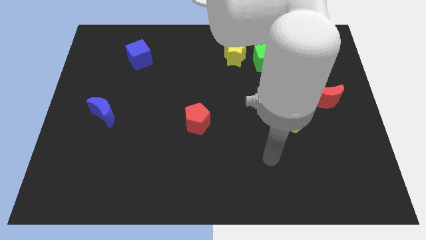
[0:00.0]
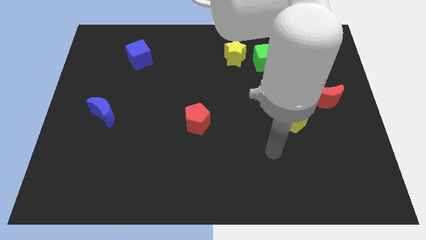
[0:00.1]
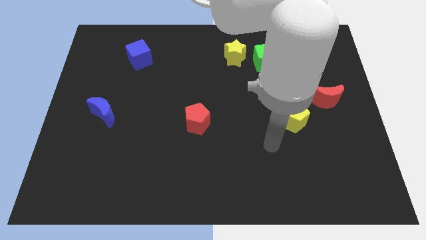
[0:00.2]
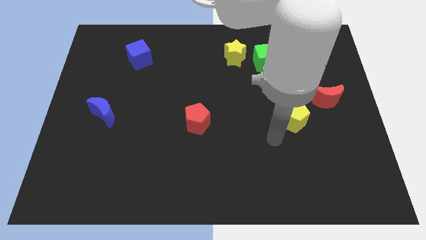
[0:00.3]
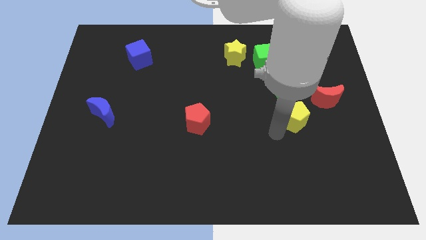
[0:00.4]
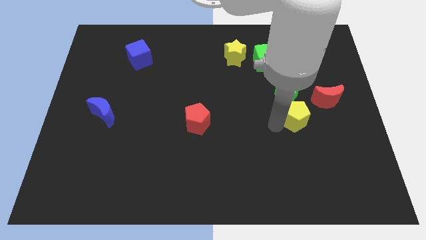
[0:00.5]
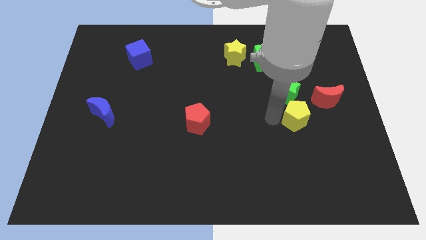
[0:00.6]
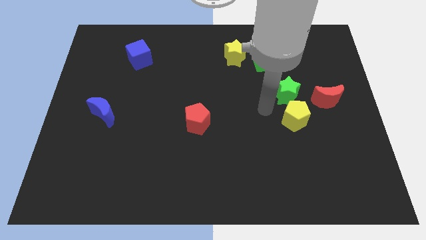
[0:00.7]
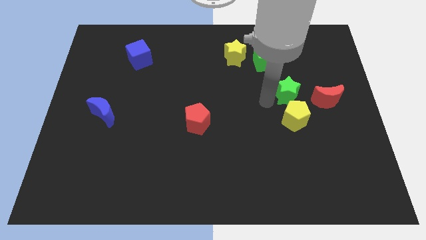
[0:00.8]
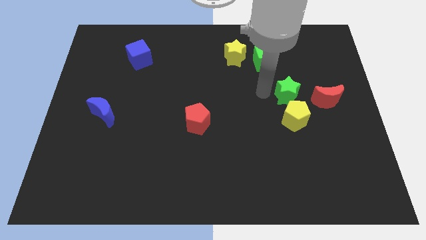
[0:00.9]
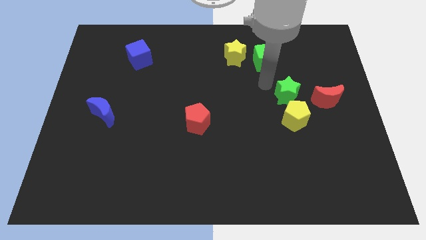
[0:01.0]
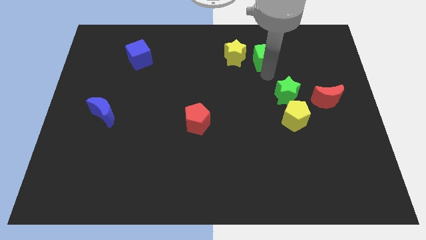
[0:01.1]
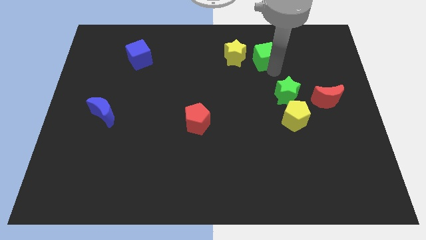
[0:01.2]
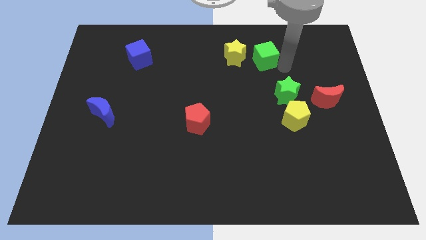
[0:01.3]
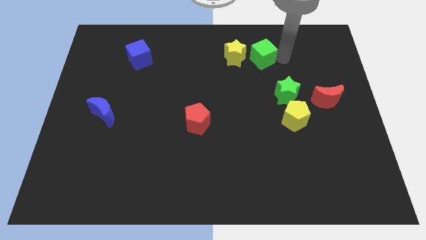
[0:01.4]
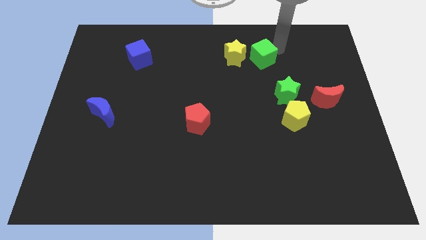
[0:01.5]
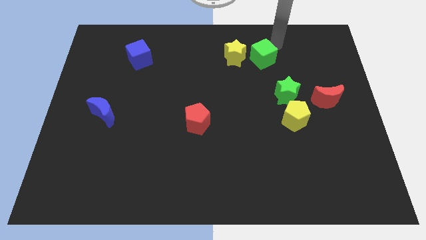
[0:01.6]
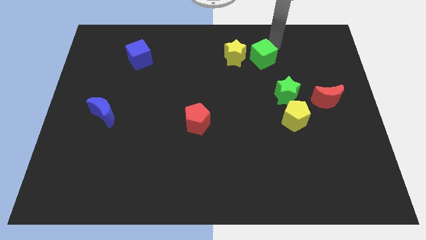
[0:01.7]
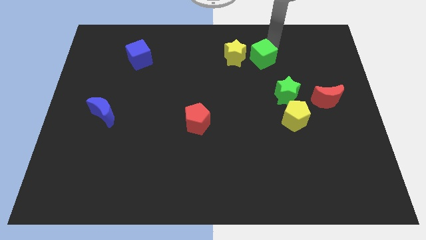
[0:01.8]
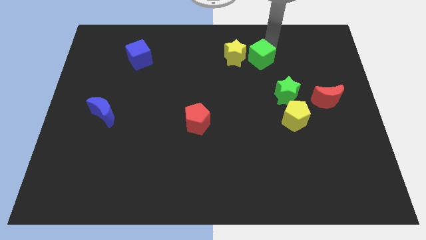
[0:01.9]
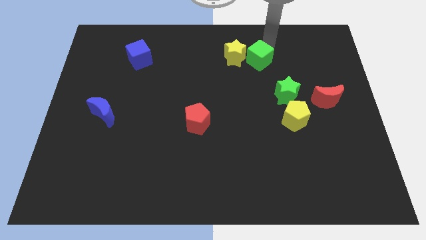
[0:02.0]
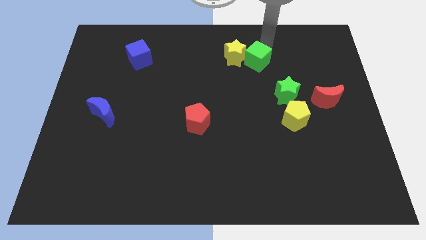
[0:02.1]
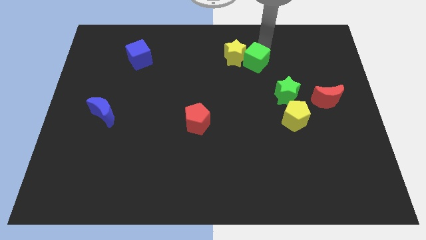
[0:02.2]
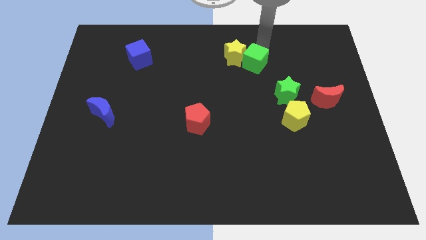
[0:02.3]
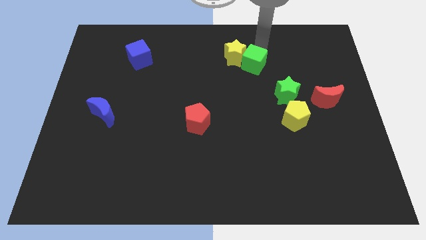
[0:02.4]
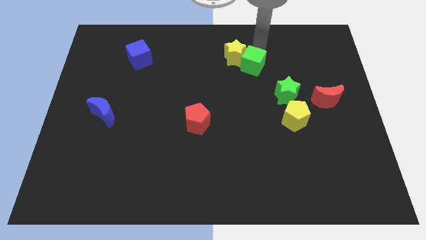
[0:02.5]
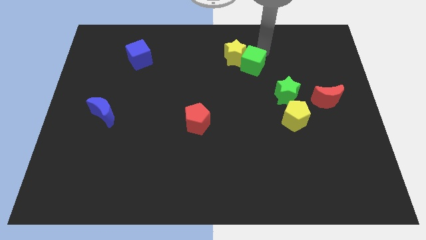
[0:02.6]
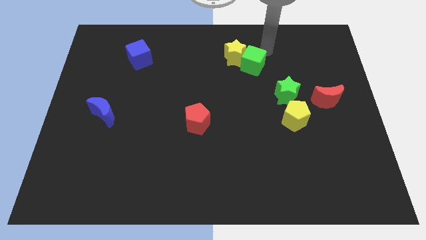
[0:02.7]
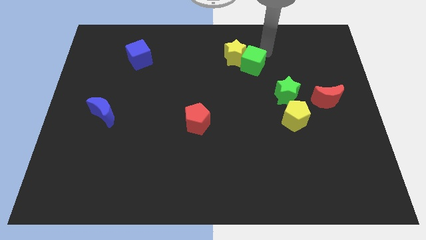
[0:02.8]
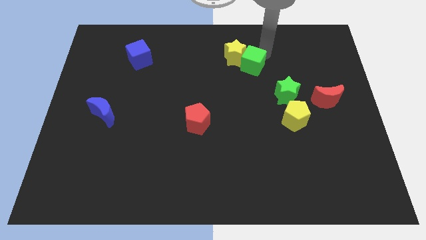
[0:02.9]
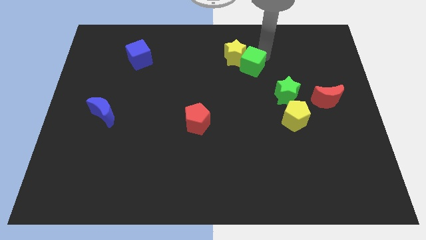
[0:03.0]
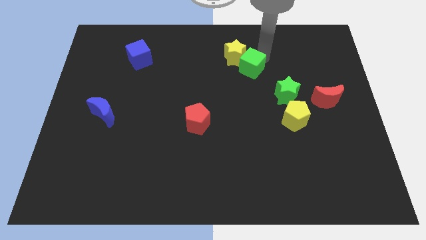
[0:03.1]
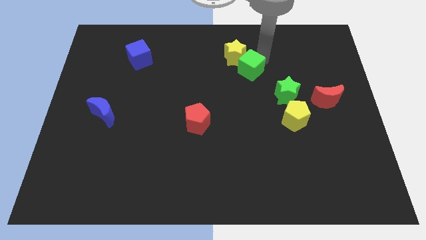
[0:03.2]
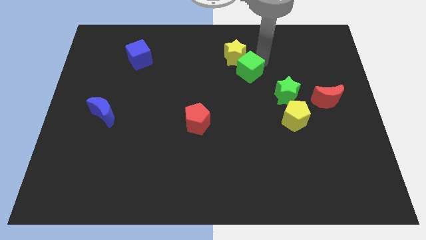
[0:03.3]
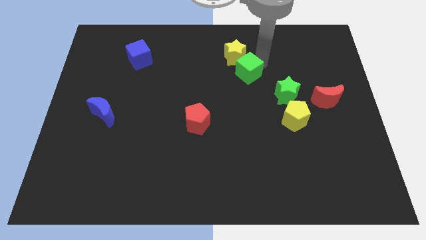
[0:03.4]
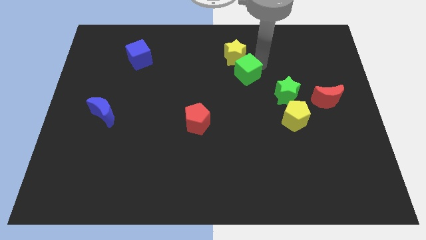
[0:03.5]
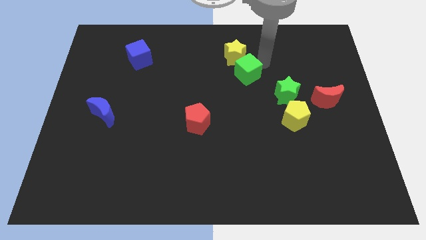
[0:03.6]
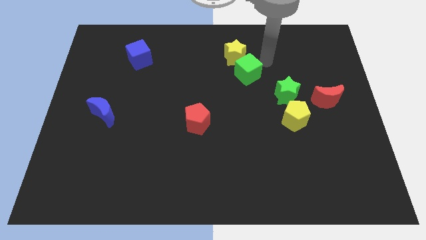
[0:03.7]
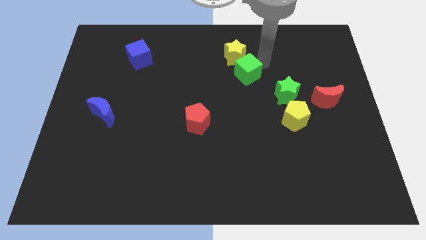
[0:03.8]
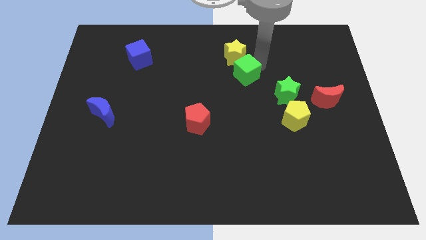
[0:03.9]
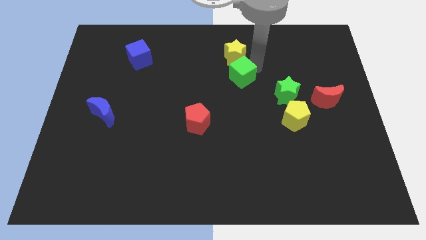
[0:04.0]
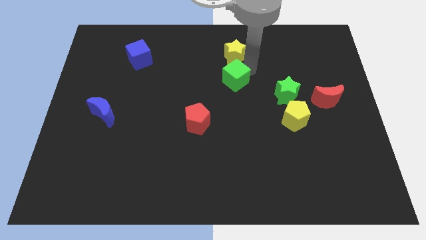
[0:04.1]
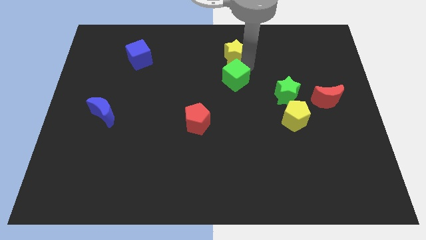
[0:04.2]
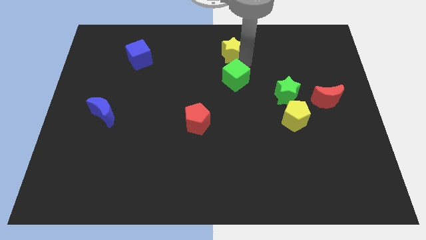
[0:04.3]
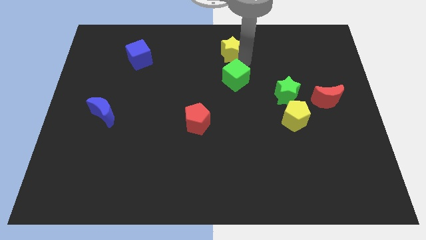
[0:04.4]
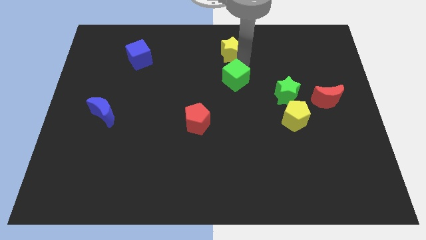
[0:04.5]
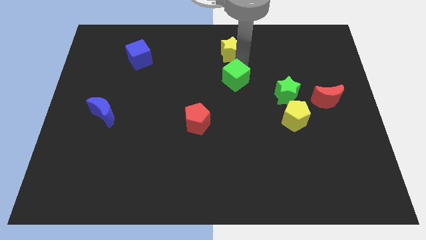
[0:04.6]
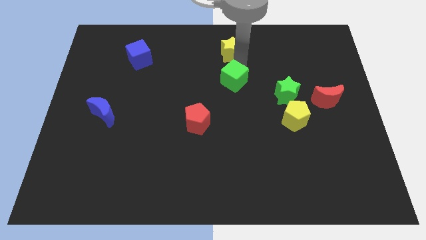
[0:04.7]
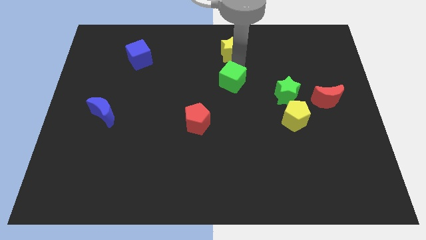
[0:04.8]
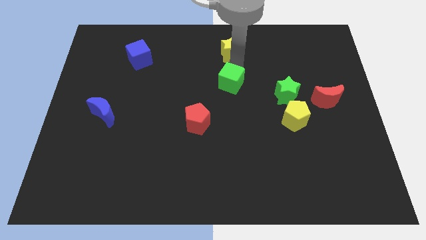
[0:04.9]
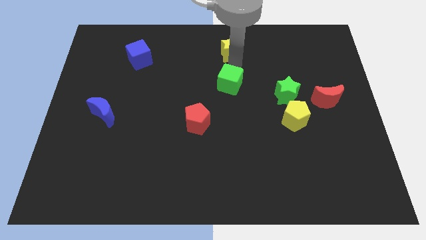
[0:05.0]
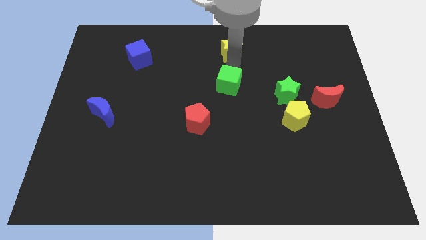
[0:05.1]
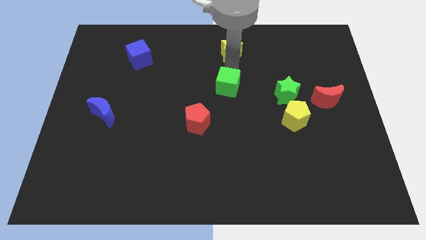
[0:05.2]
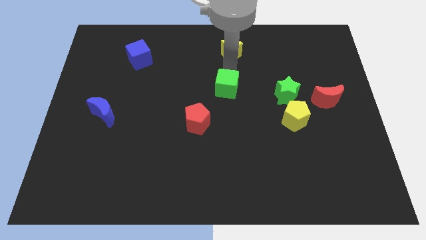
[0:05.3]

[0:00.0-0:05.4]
put the green cube to the top right side of the red pentagon

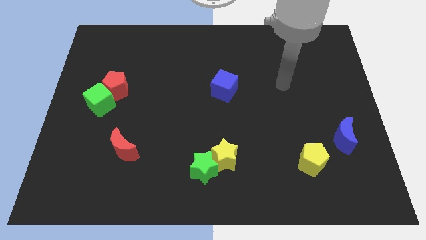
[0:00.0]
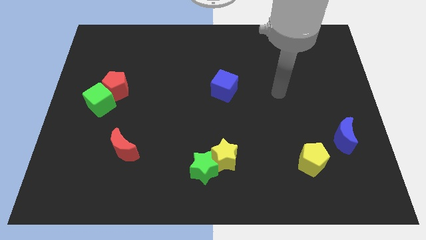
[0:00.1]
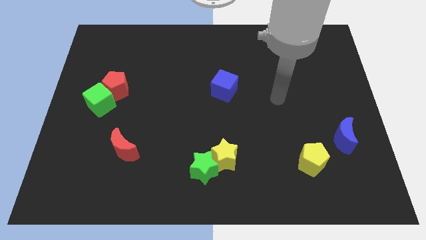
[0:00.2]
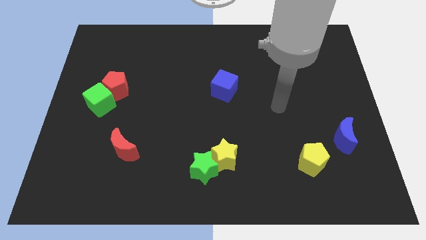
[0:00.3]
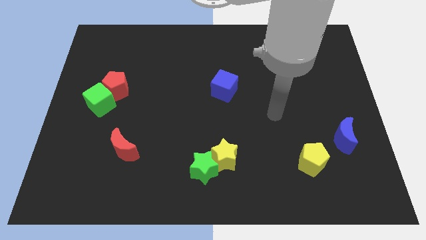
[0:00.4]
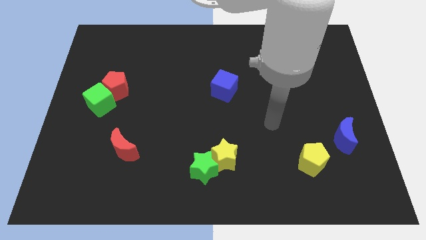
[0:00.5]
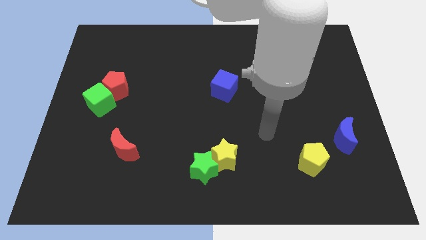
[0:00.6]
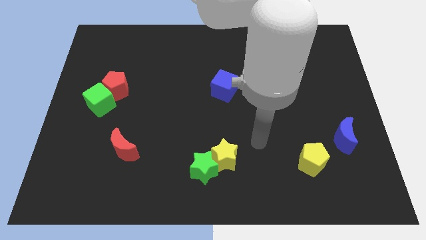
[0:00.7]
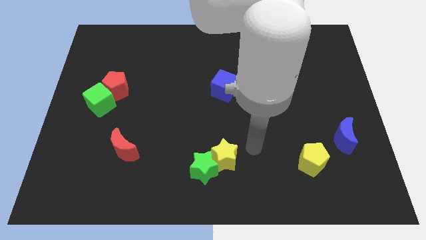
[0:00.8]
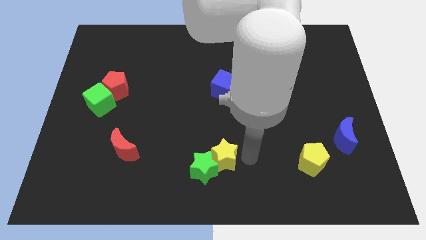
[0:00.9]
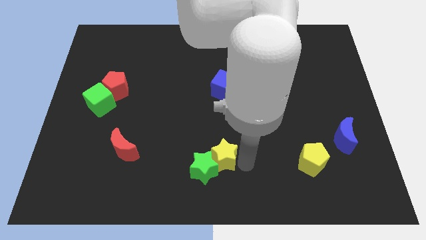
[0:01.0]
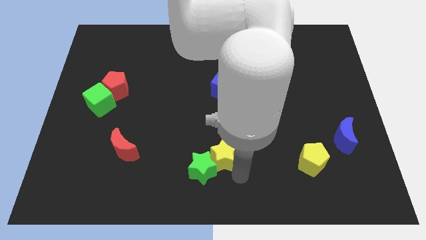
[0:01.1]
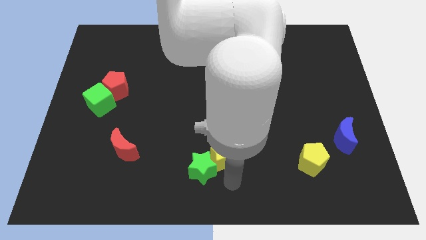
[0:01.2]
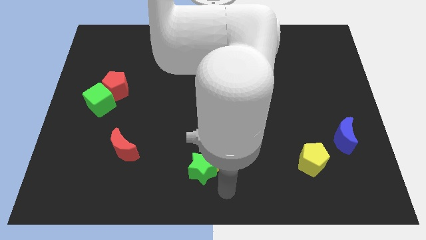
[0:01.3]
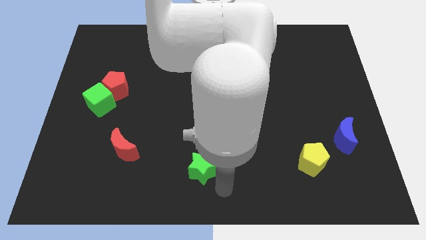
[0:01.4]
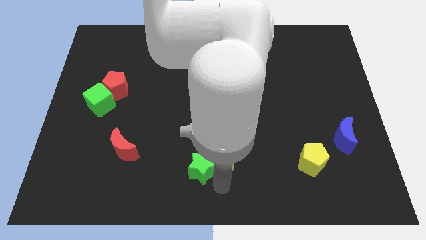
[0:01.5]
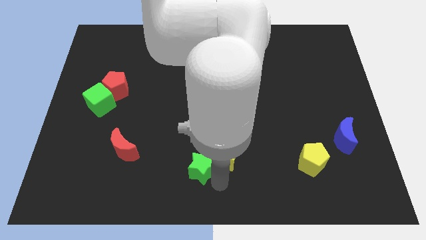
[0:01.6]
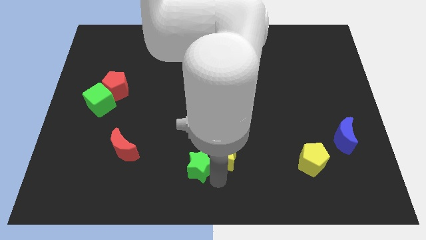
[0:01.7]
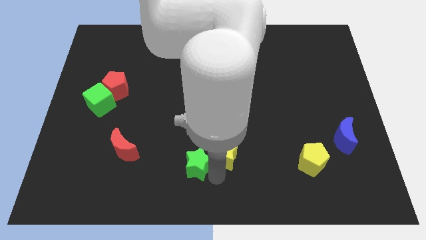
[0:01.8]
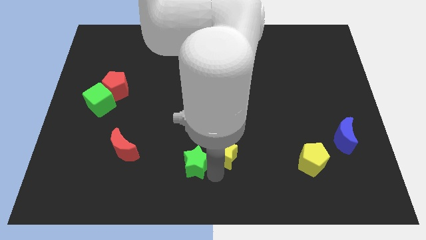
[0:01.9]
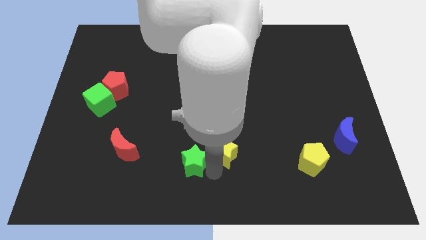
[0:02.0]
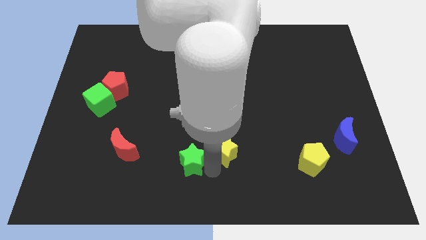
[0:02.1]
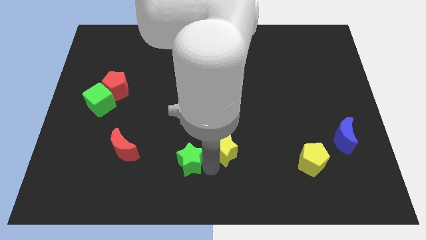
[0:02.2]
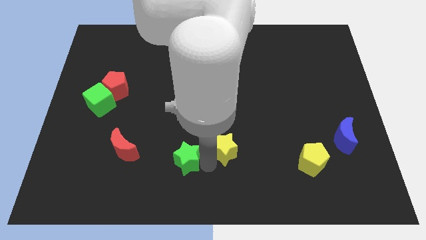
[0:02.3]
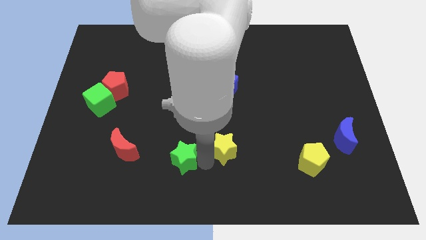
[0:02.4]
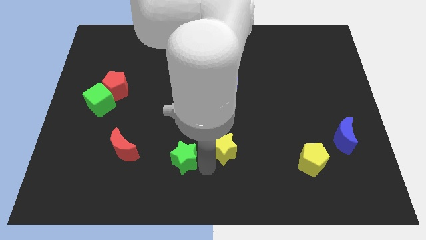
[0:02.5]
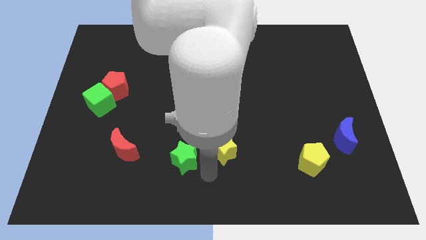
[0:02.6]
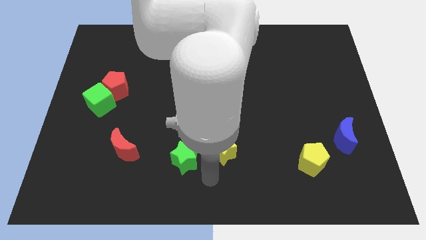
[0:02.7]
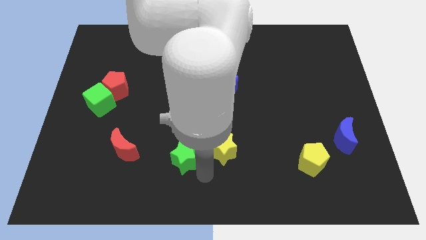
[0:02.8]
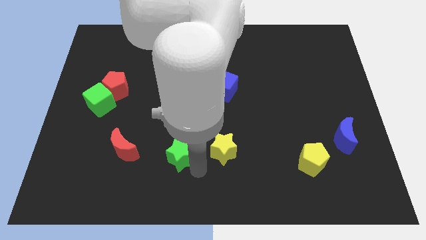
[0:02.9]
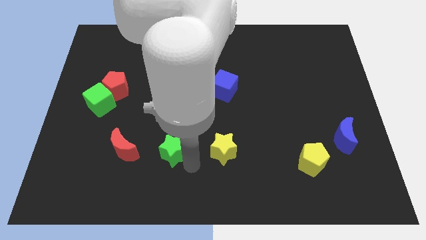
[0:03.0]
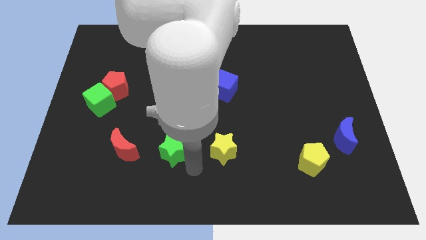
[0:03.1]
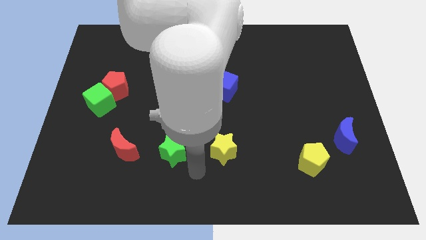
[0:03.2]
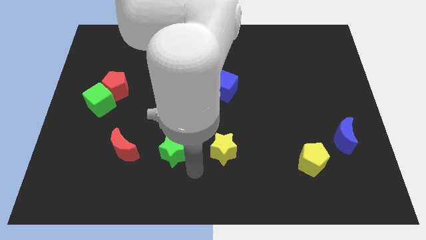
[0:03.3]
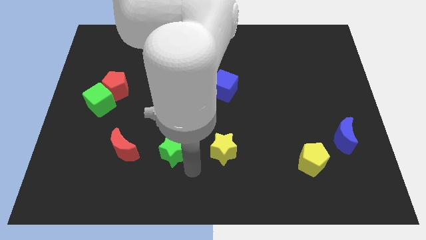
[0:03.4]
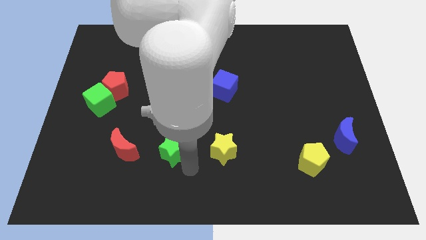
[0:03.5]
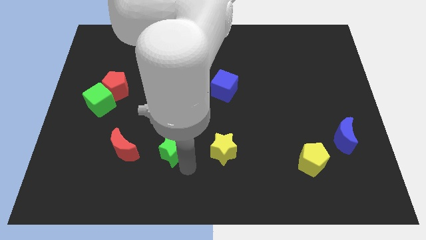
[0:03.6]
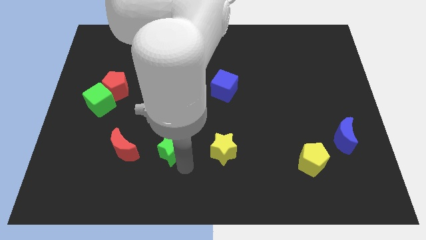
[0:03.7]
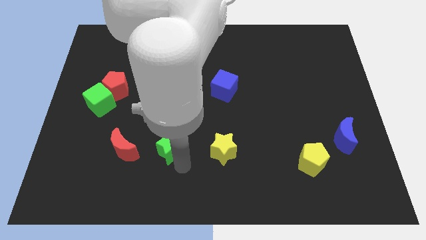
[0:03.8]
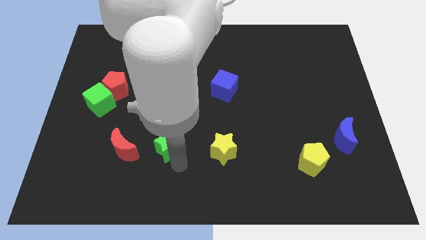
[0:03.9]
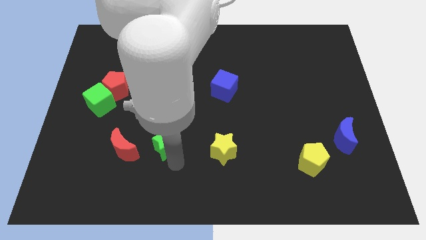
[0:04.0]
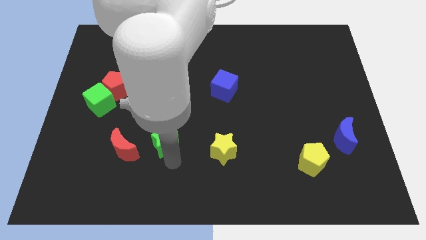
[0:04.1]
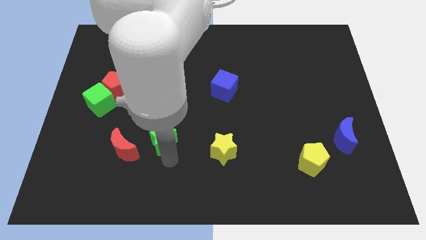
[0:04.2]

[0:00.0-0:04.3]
put the green star diagonally up and to the right of the red moon
